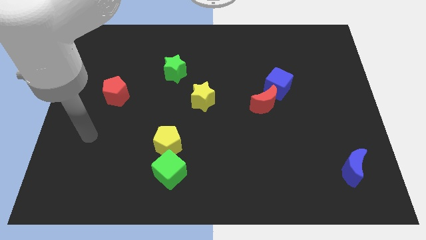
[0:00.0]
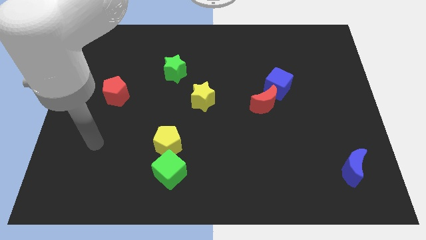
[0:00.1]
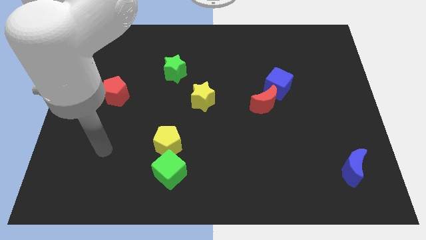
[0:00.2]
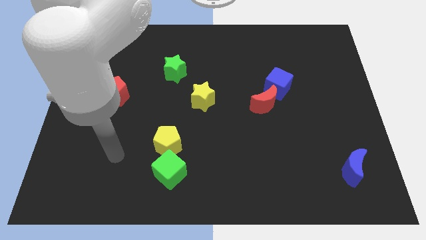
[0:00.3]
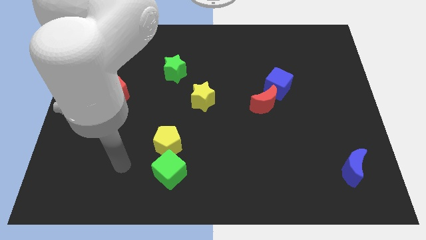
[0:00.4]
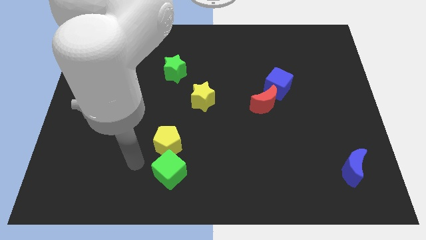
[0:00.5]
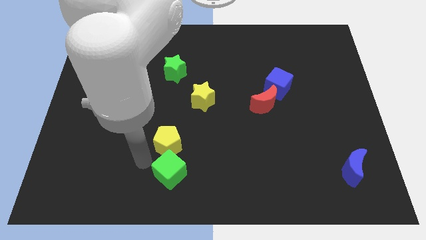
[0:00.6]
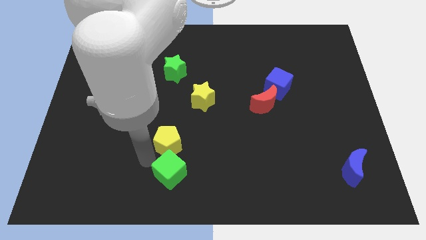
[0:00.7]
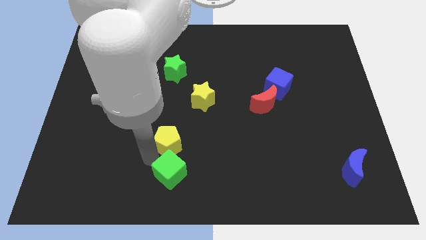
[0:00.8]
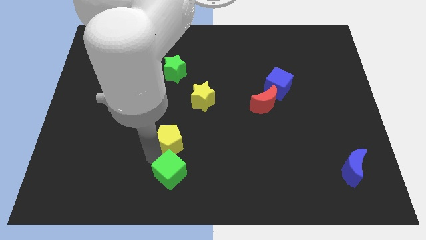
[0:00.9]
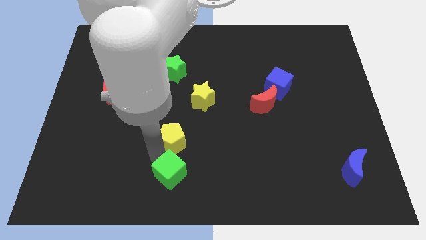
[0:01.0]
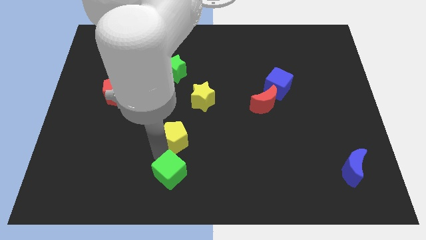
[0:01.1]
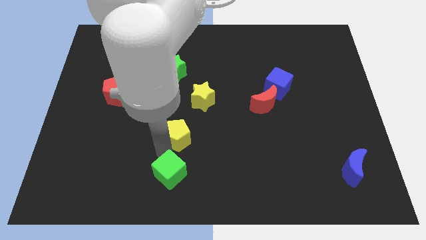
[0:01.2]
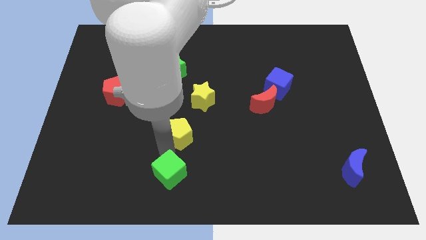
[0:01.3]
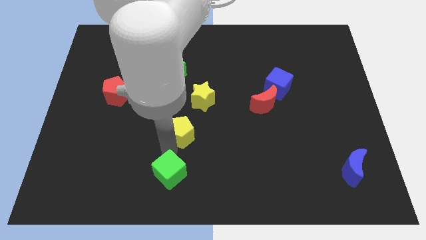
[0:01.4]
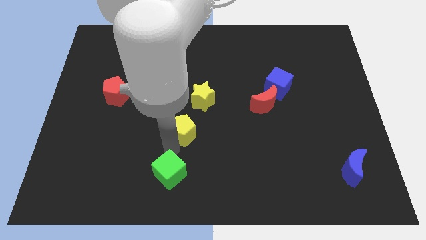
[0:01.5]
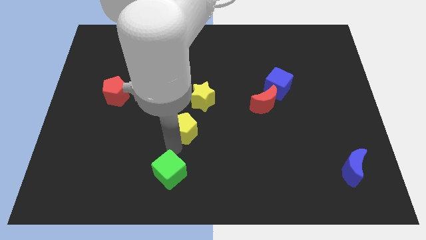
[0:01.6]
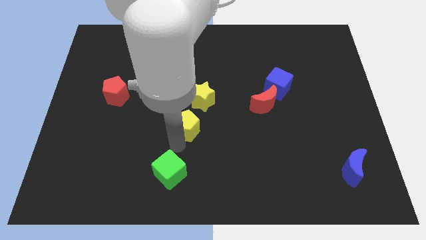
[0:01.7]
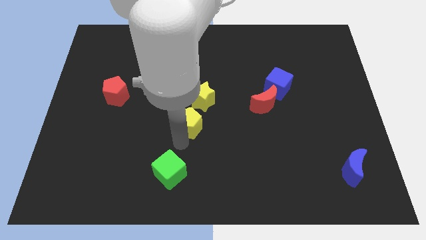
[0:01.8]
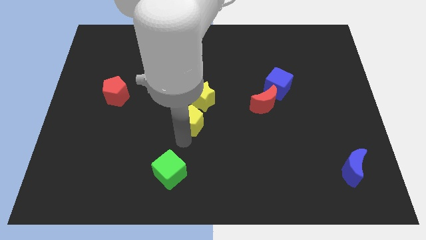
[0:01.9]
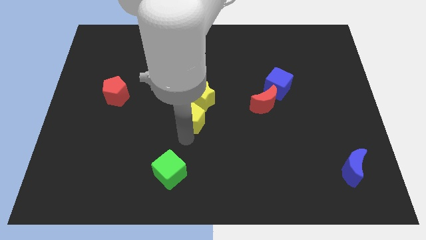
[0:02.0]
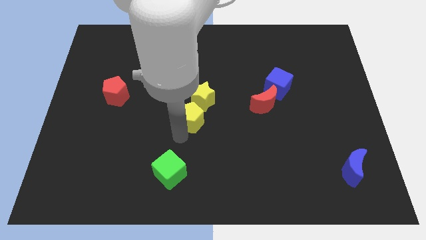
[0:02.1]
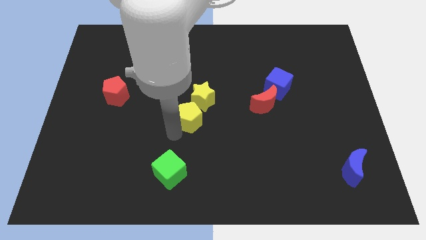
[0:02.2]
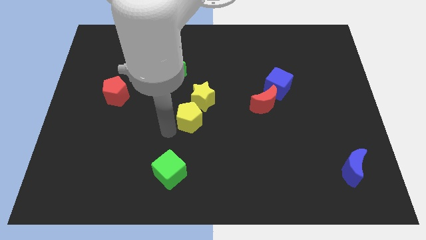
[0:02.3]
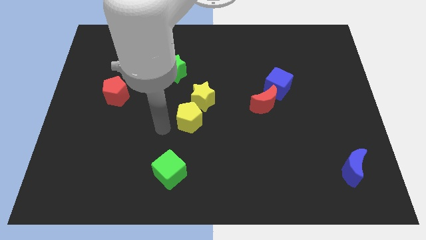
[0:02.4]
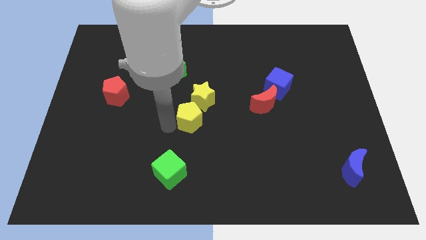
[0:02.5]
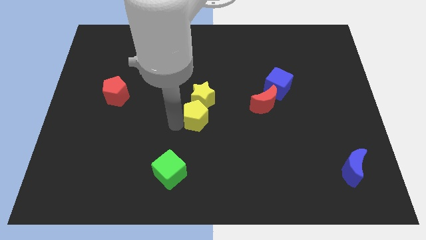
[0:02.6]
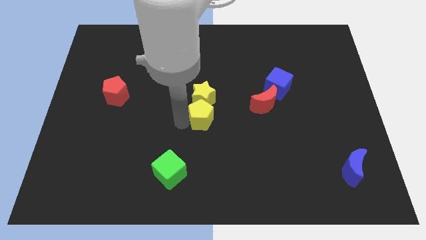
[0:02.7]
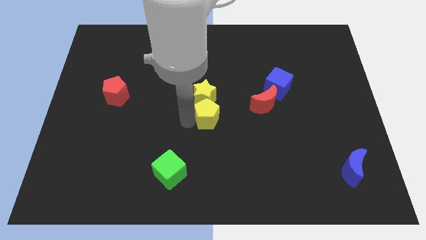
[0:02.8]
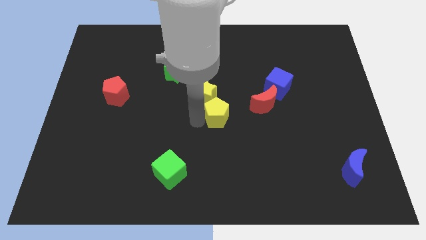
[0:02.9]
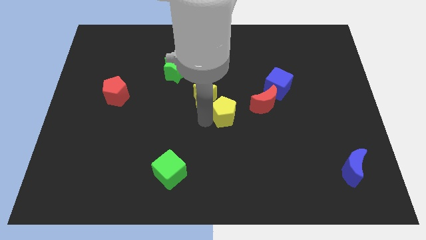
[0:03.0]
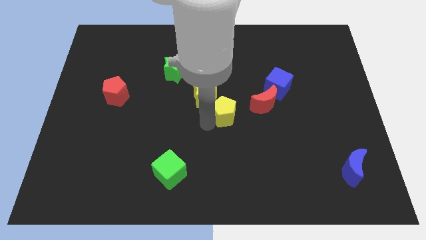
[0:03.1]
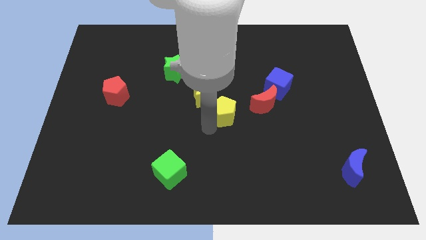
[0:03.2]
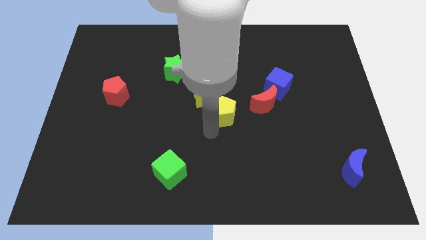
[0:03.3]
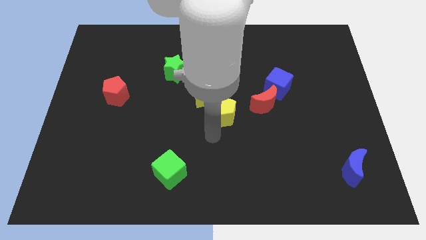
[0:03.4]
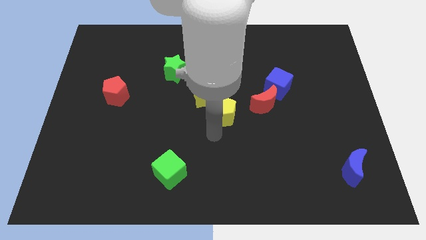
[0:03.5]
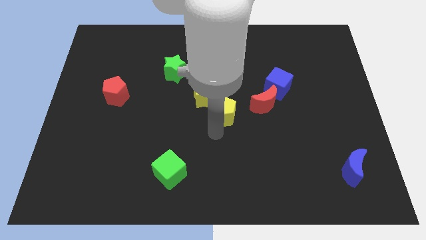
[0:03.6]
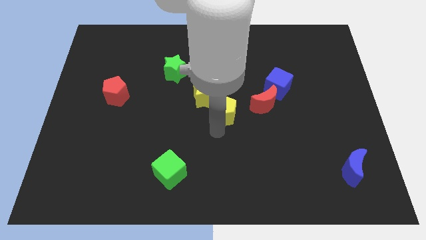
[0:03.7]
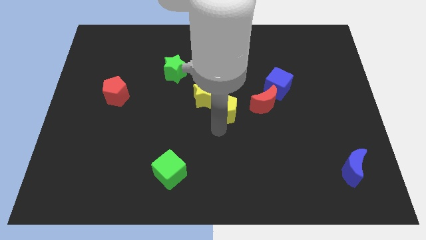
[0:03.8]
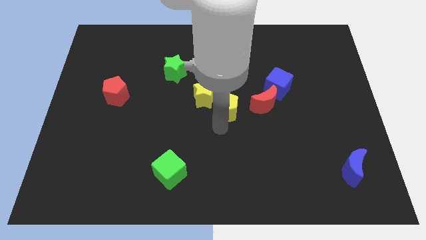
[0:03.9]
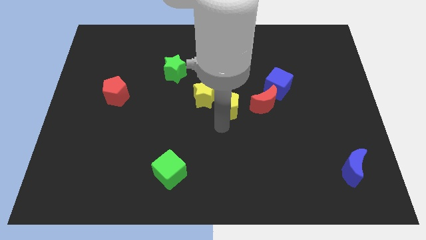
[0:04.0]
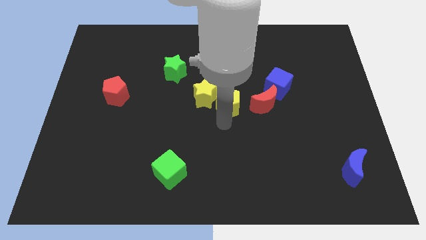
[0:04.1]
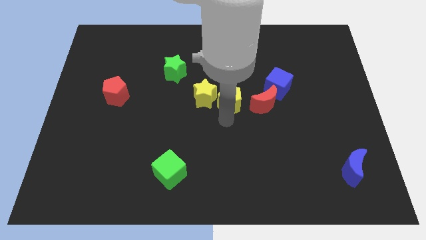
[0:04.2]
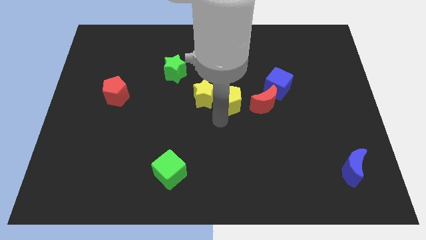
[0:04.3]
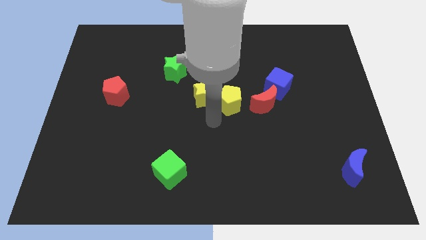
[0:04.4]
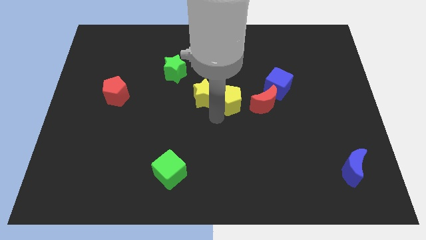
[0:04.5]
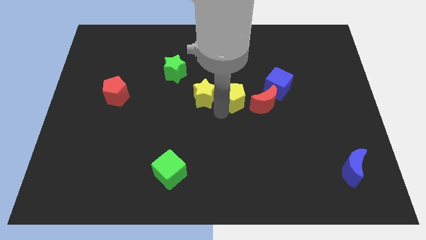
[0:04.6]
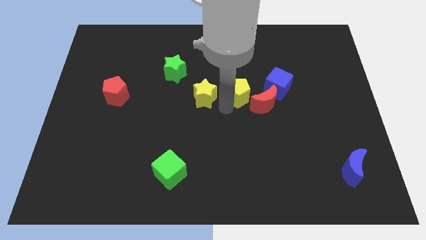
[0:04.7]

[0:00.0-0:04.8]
push the yellow pentagon up and then right

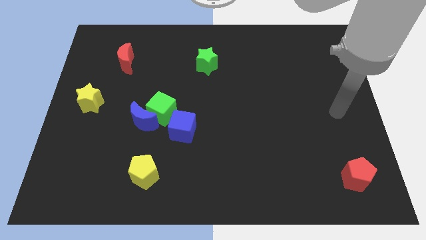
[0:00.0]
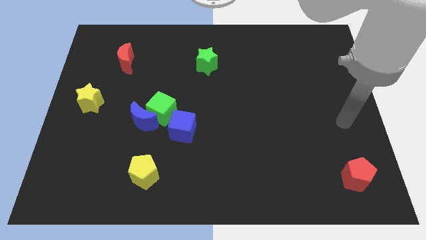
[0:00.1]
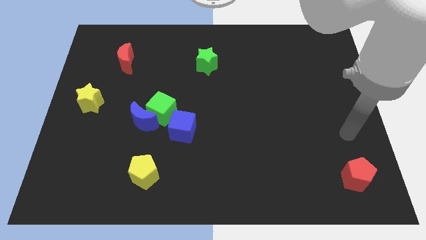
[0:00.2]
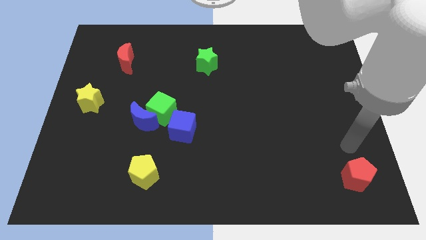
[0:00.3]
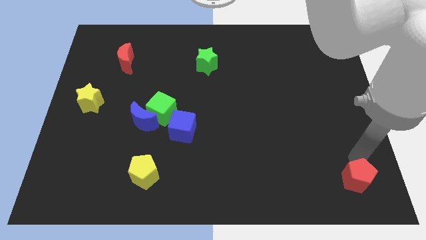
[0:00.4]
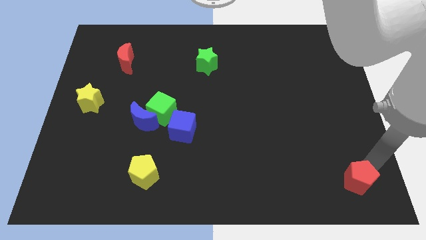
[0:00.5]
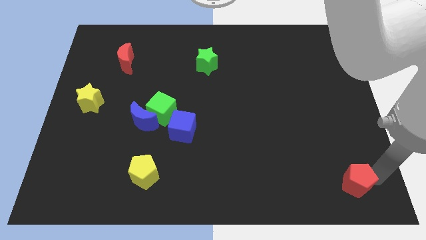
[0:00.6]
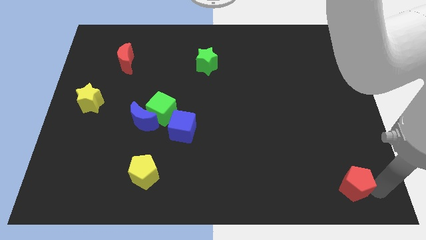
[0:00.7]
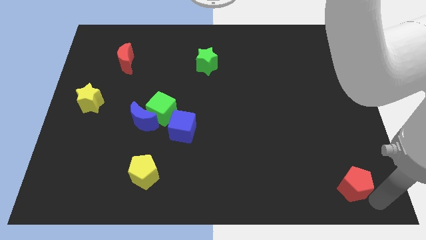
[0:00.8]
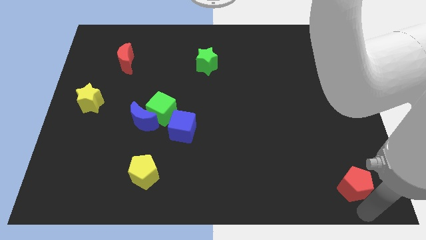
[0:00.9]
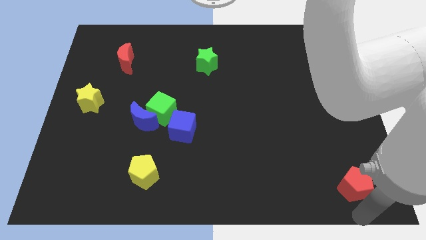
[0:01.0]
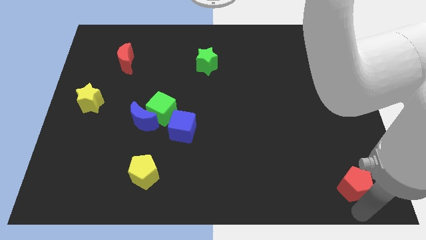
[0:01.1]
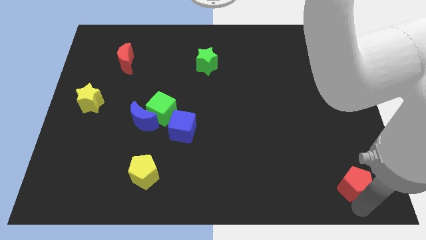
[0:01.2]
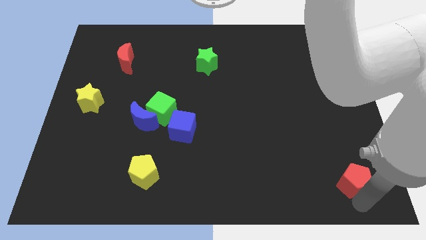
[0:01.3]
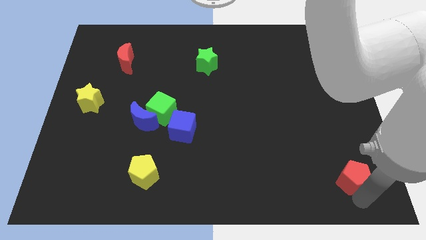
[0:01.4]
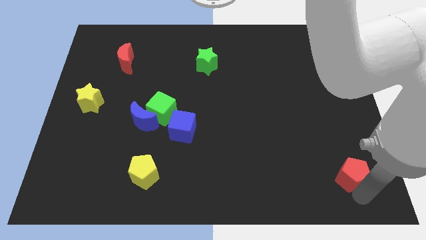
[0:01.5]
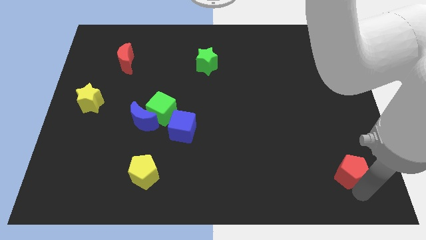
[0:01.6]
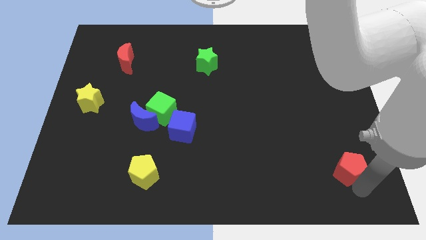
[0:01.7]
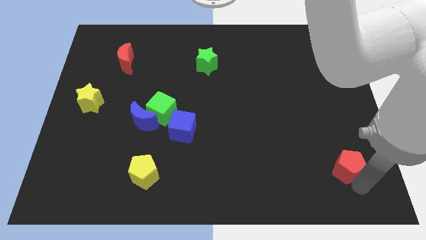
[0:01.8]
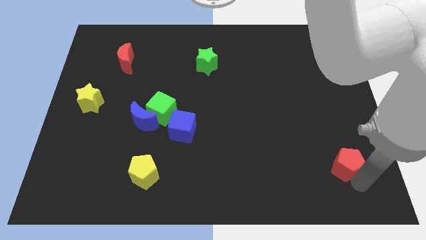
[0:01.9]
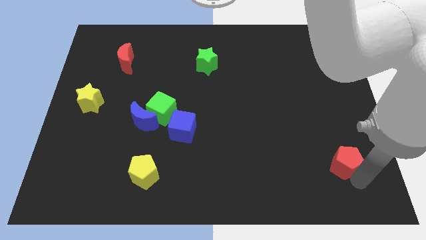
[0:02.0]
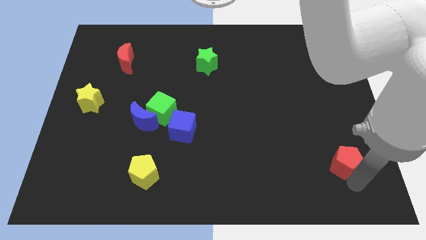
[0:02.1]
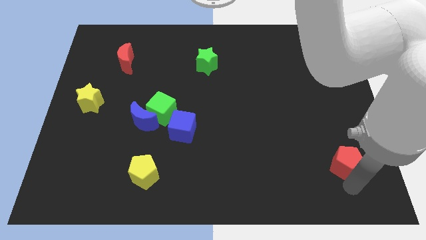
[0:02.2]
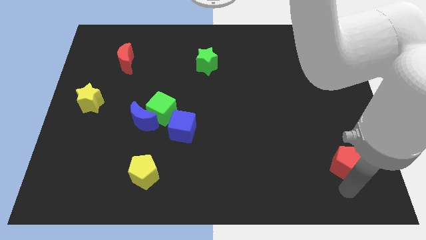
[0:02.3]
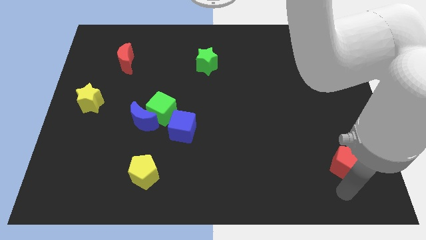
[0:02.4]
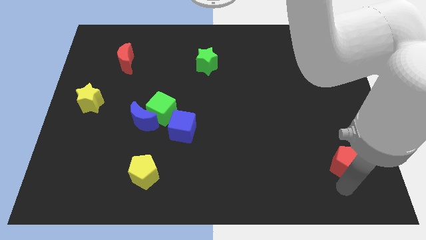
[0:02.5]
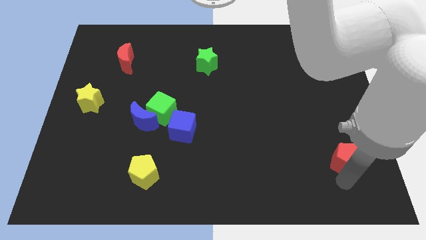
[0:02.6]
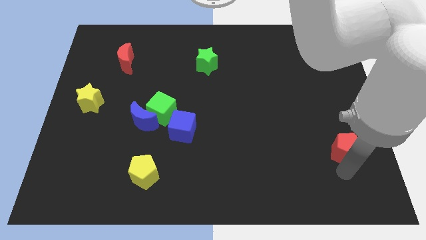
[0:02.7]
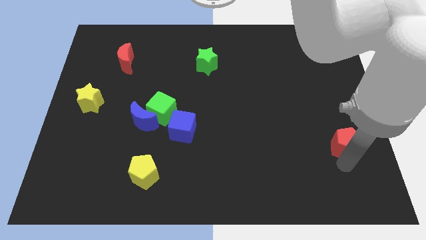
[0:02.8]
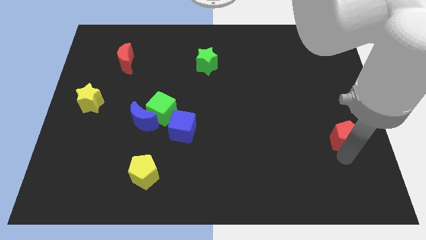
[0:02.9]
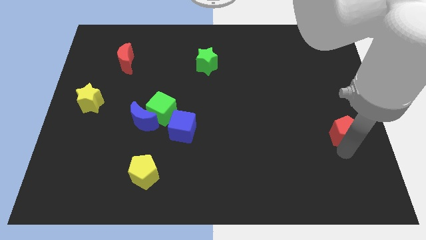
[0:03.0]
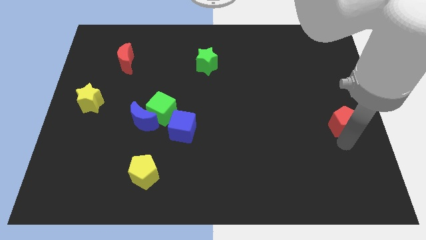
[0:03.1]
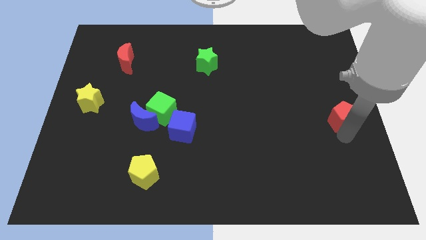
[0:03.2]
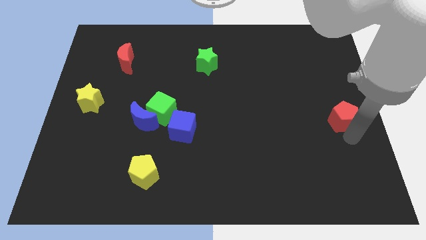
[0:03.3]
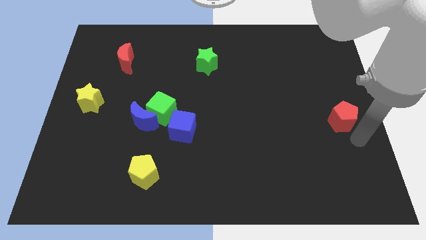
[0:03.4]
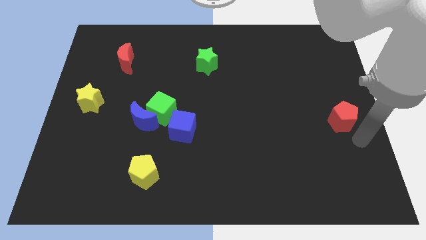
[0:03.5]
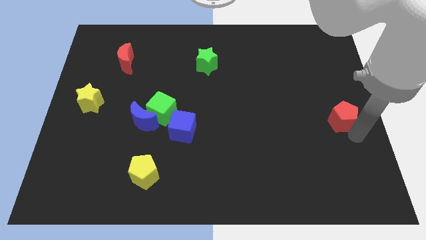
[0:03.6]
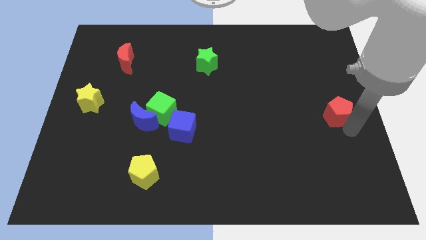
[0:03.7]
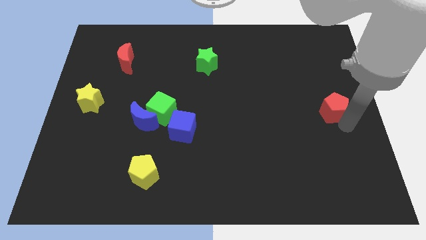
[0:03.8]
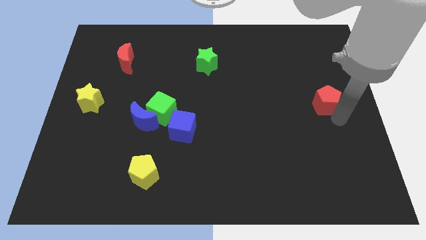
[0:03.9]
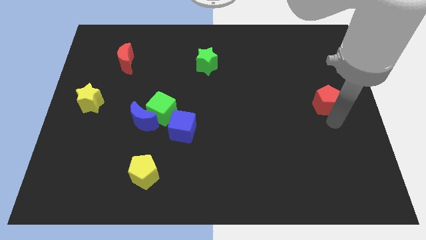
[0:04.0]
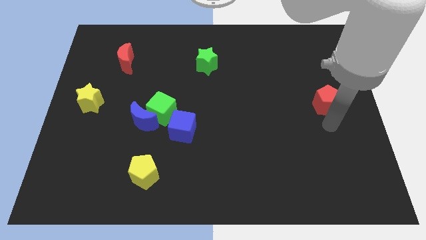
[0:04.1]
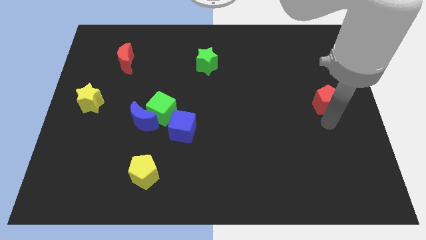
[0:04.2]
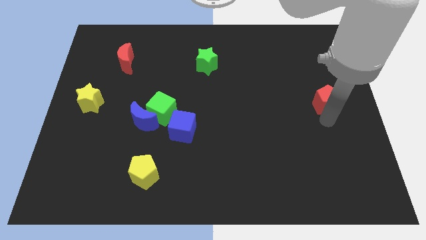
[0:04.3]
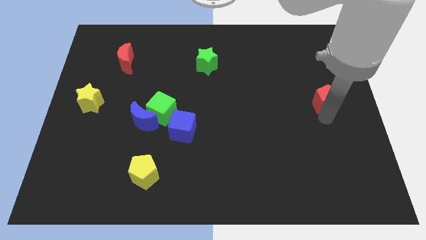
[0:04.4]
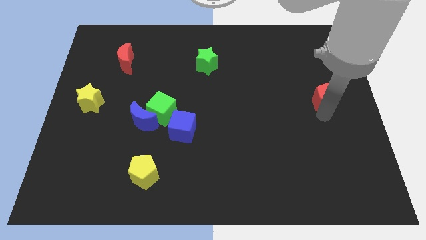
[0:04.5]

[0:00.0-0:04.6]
move the red pentagon up
